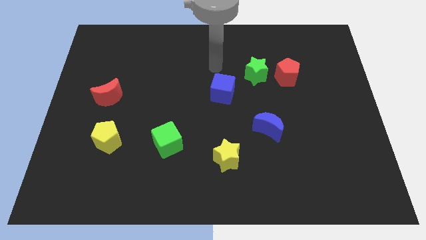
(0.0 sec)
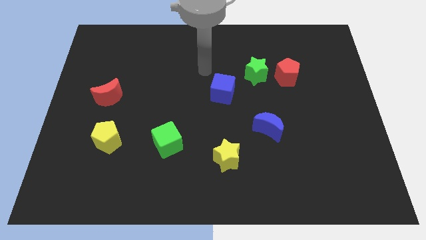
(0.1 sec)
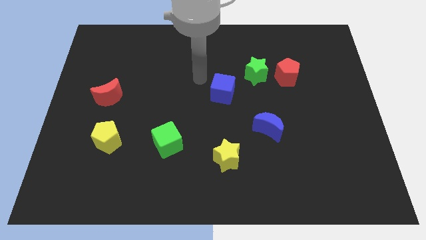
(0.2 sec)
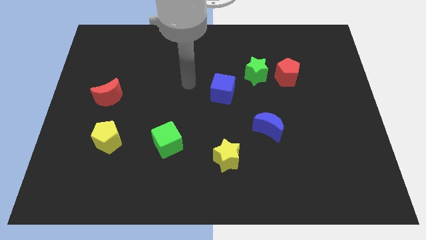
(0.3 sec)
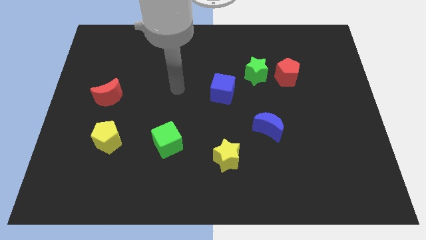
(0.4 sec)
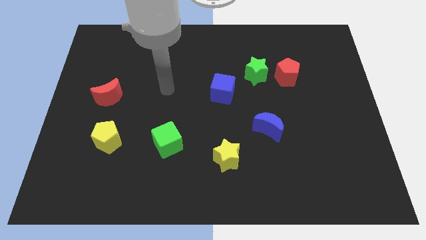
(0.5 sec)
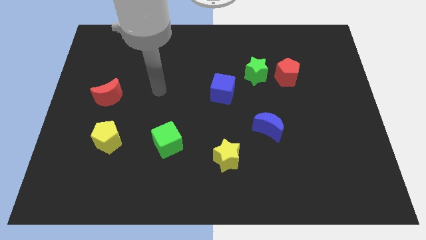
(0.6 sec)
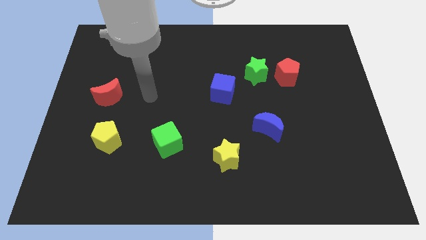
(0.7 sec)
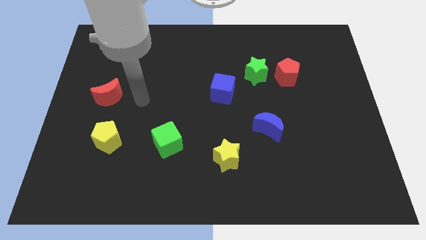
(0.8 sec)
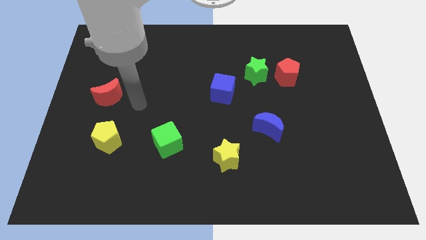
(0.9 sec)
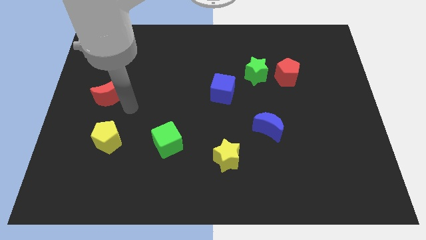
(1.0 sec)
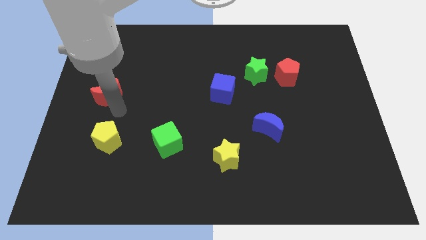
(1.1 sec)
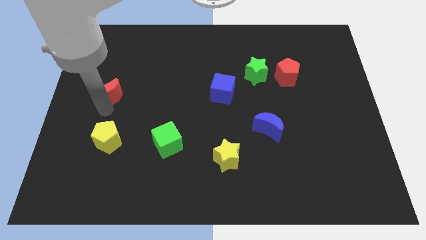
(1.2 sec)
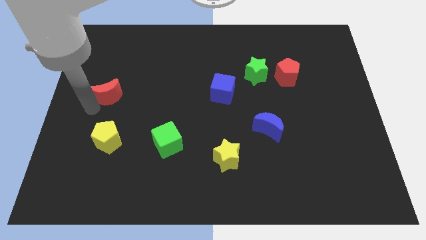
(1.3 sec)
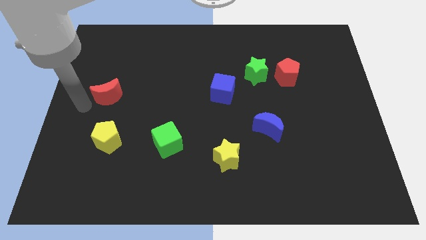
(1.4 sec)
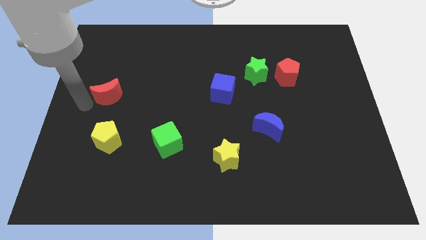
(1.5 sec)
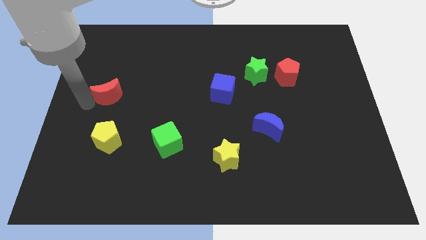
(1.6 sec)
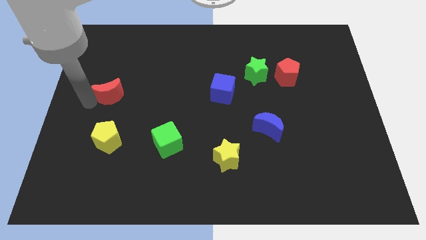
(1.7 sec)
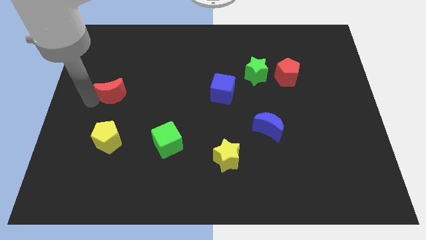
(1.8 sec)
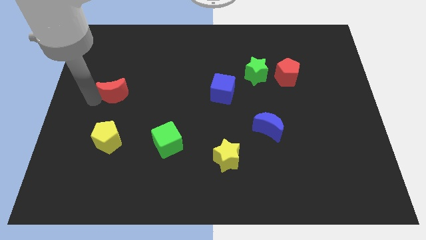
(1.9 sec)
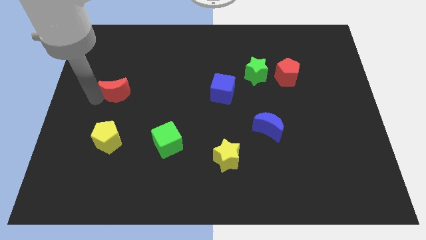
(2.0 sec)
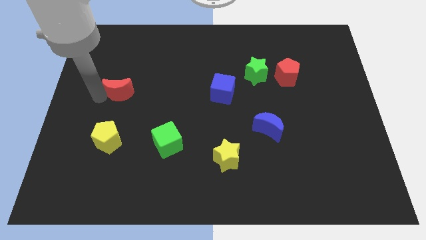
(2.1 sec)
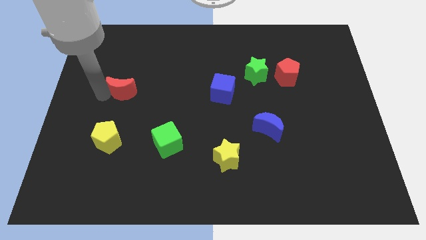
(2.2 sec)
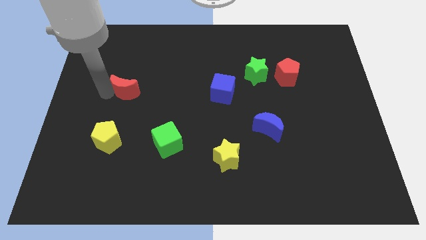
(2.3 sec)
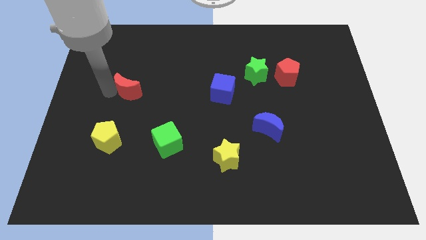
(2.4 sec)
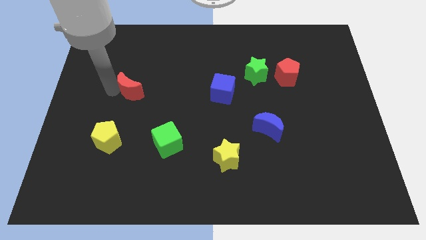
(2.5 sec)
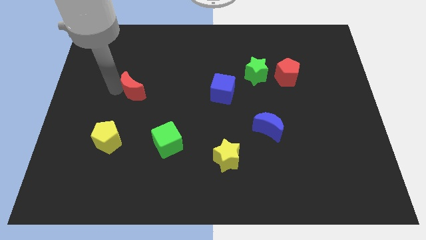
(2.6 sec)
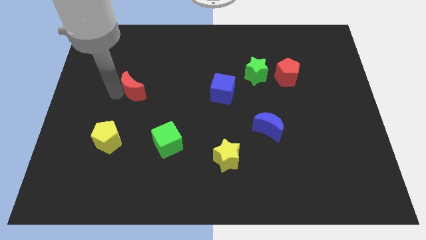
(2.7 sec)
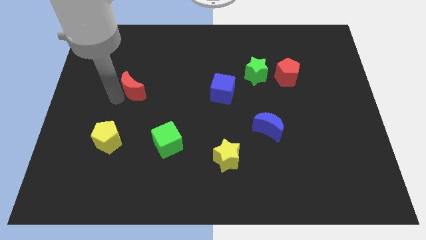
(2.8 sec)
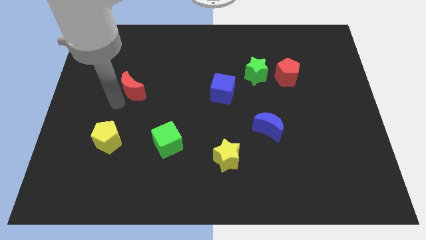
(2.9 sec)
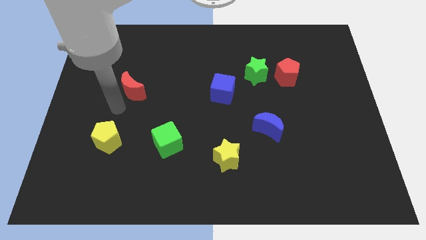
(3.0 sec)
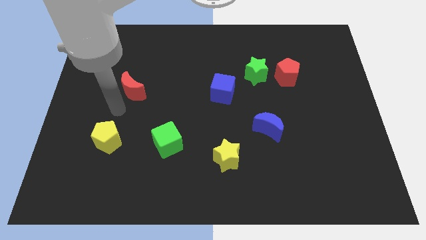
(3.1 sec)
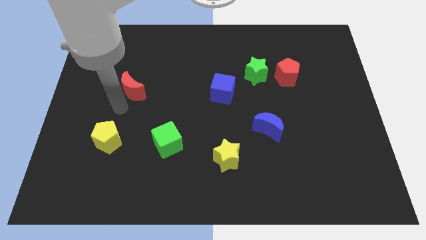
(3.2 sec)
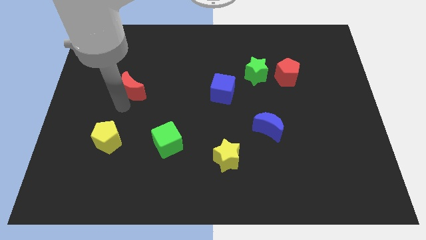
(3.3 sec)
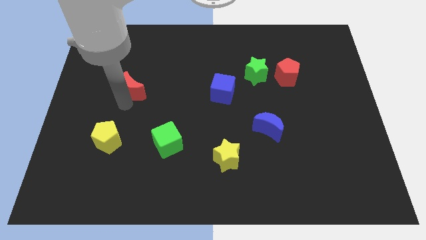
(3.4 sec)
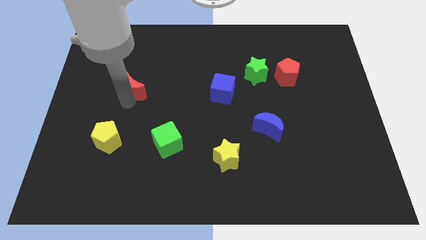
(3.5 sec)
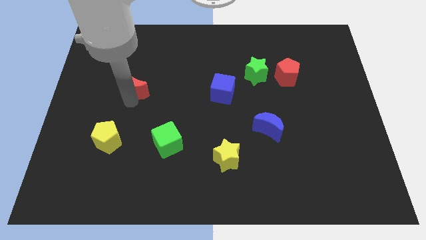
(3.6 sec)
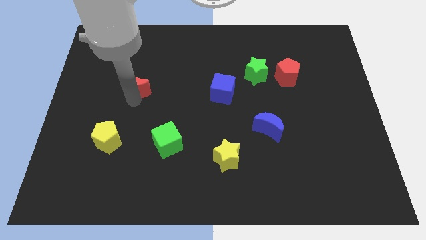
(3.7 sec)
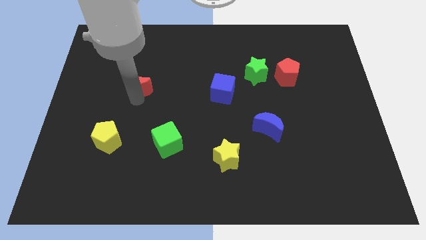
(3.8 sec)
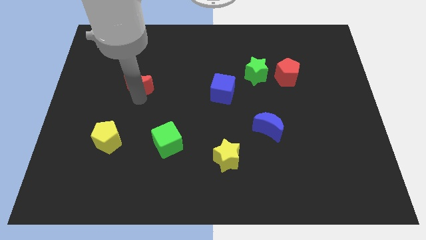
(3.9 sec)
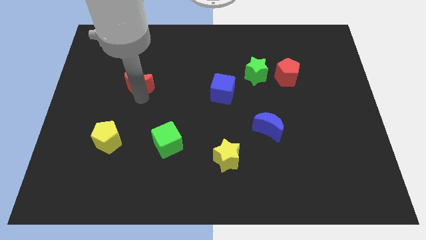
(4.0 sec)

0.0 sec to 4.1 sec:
slightly move the red moon diagonally upwards and right

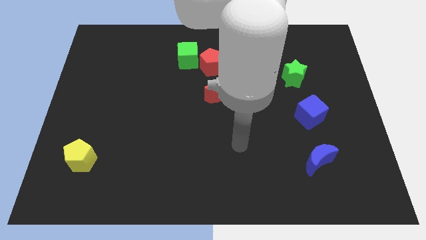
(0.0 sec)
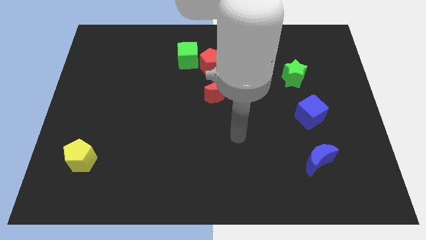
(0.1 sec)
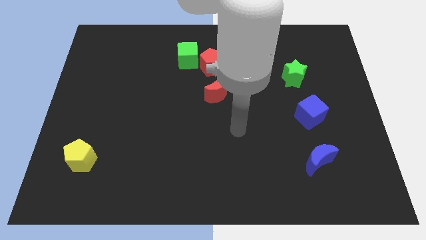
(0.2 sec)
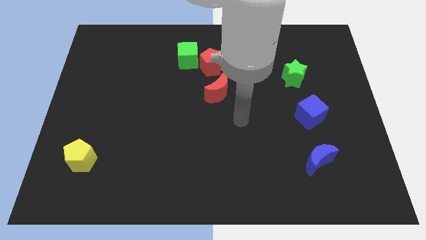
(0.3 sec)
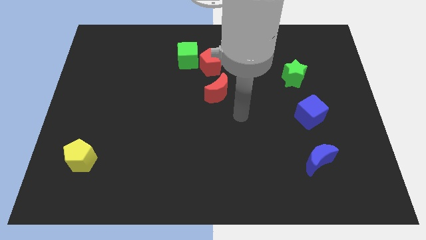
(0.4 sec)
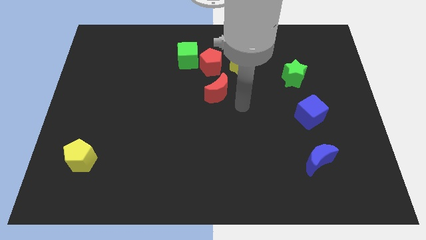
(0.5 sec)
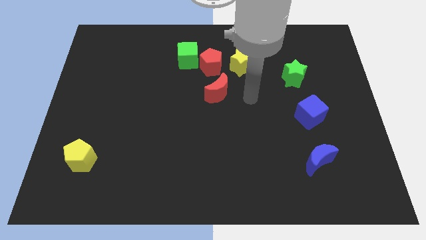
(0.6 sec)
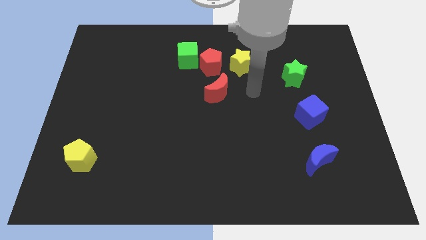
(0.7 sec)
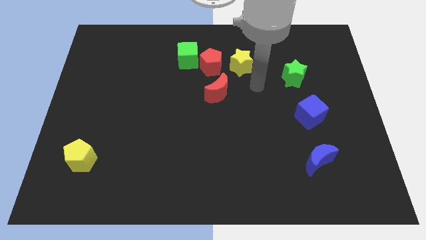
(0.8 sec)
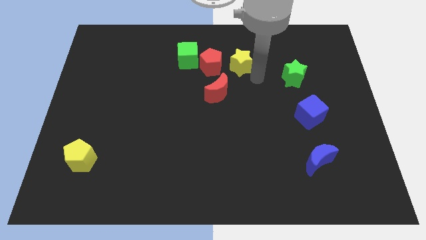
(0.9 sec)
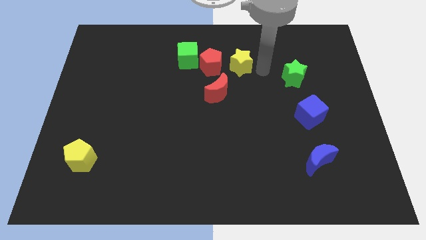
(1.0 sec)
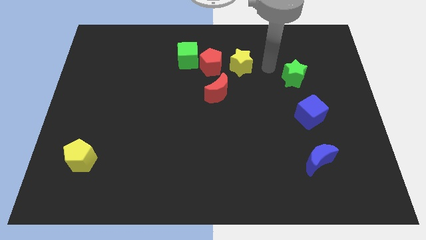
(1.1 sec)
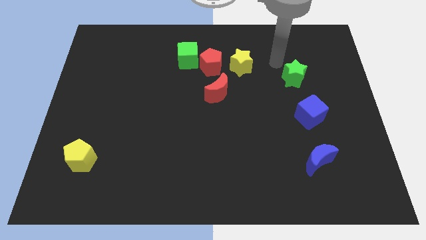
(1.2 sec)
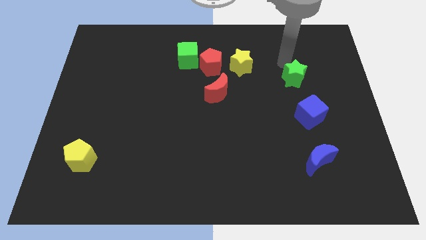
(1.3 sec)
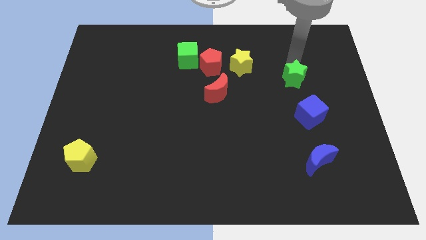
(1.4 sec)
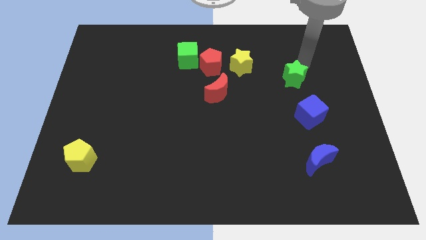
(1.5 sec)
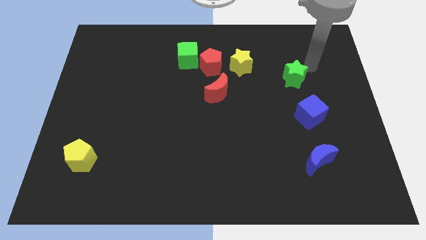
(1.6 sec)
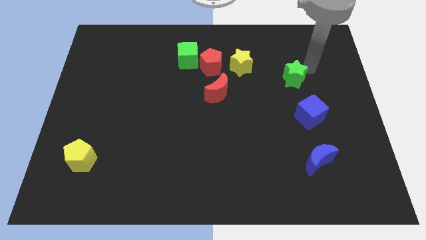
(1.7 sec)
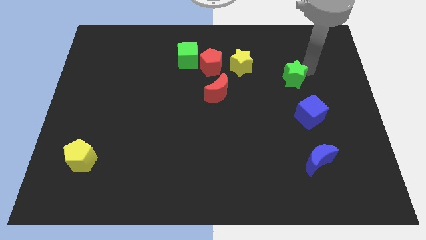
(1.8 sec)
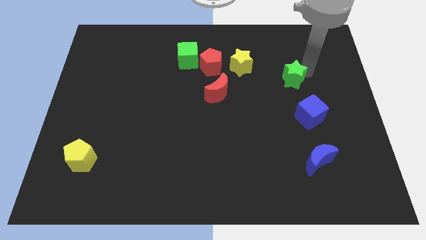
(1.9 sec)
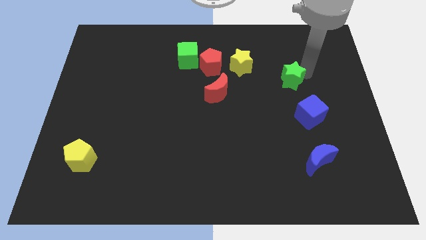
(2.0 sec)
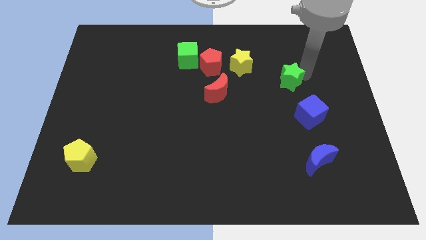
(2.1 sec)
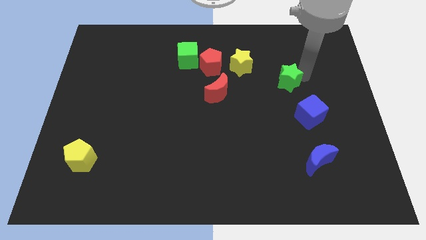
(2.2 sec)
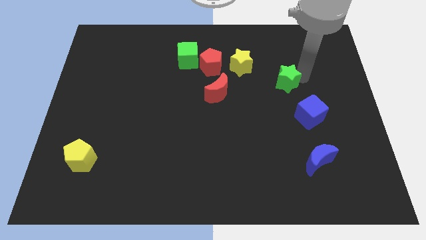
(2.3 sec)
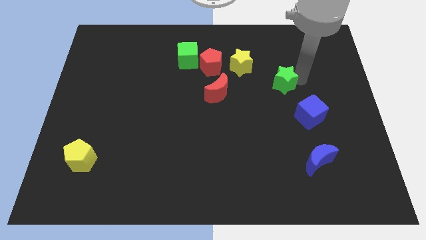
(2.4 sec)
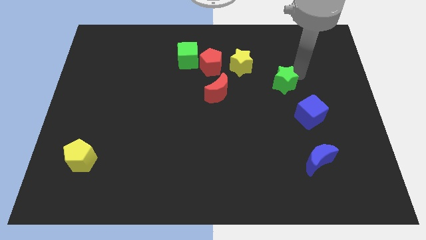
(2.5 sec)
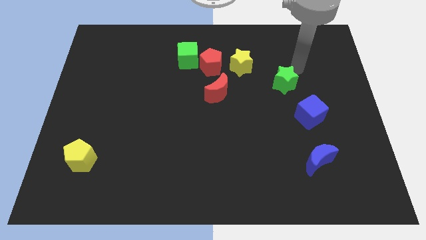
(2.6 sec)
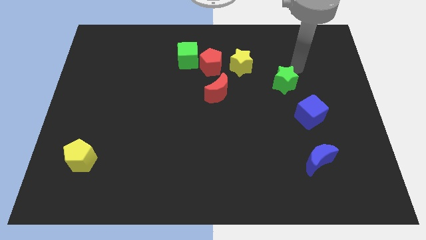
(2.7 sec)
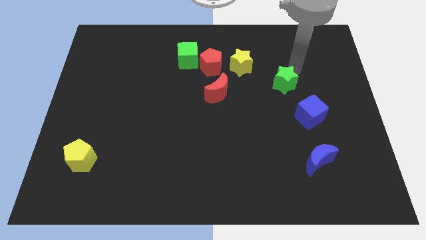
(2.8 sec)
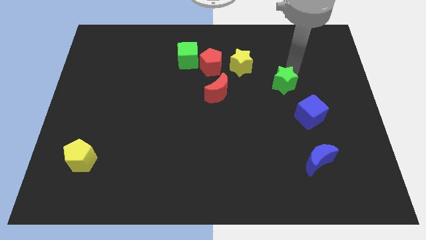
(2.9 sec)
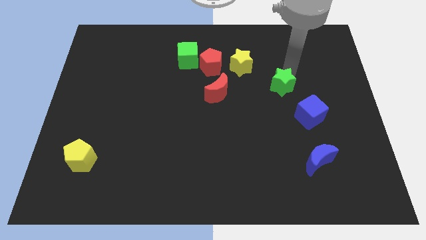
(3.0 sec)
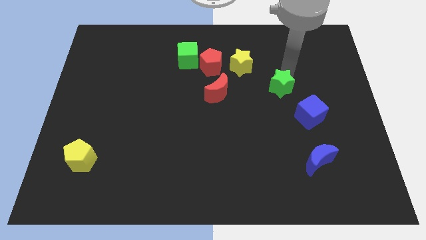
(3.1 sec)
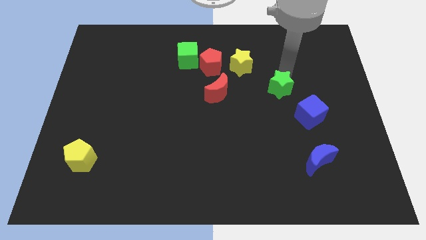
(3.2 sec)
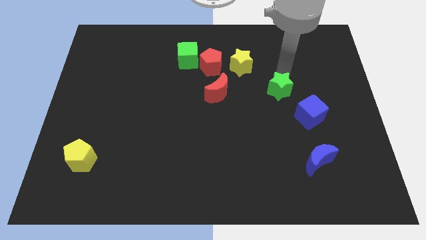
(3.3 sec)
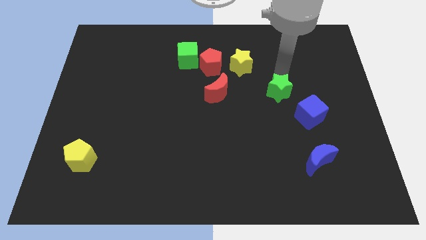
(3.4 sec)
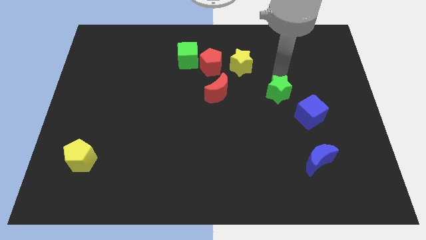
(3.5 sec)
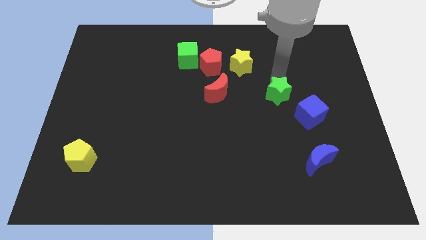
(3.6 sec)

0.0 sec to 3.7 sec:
push the green star slightly downwards and left diagonally
